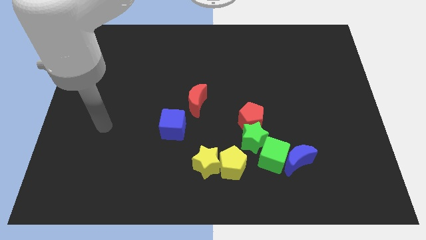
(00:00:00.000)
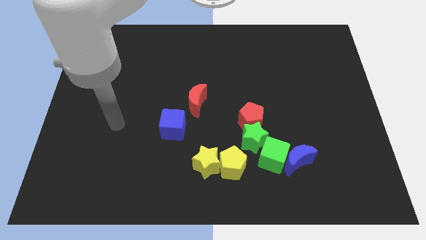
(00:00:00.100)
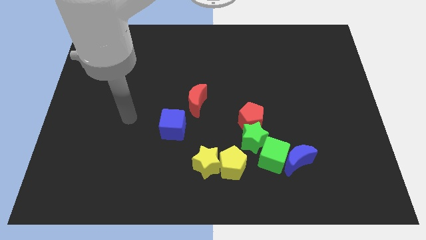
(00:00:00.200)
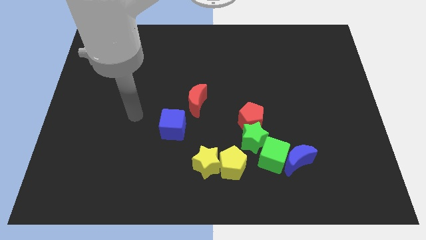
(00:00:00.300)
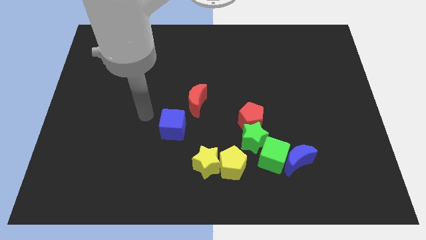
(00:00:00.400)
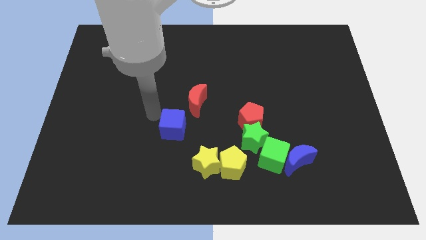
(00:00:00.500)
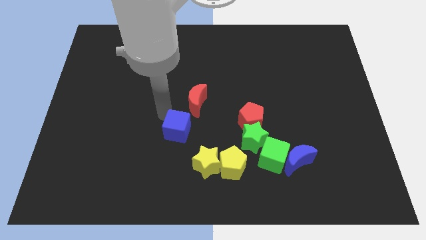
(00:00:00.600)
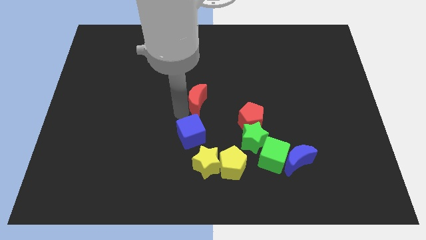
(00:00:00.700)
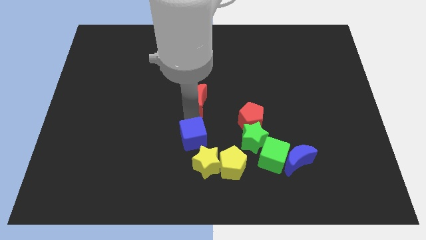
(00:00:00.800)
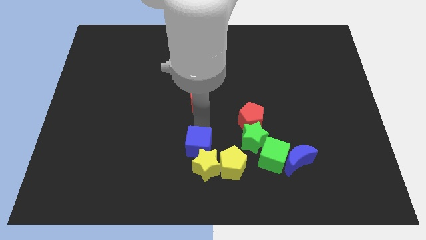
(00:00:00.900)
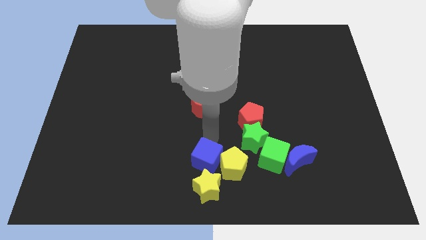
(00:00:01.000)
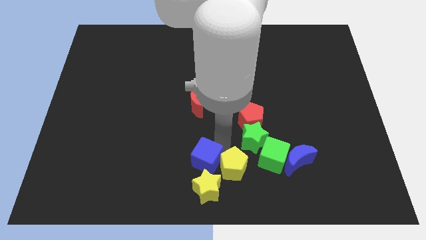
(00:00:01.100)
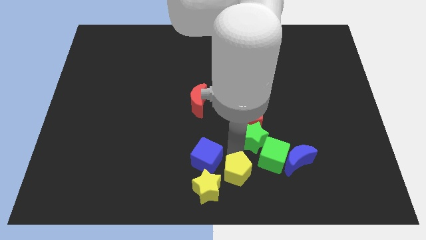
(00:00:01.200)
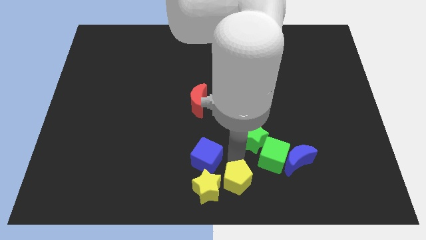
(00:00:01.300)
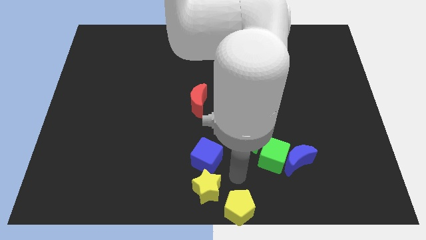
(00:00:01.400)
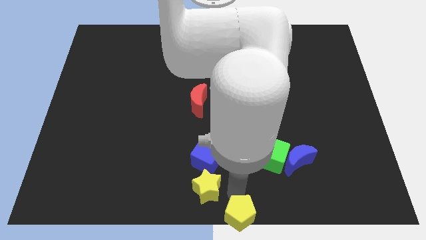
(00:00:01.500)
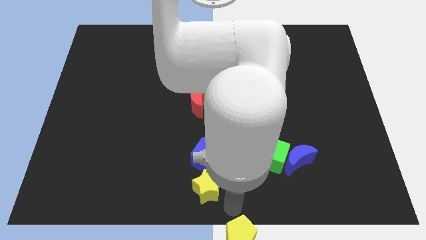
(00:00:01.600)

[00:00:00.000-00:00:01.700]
pull the yellow star apart from the yellow pentagon

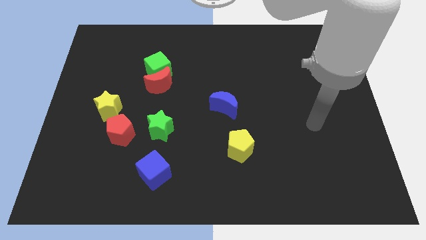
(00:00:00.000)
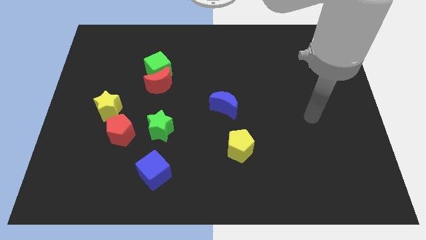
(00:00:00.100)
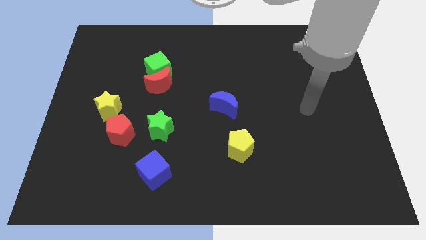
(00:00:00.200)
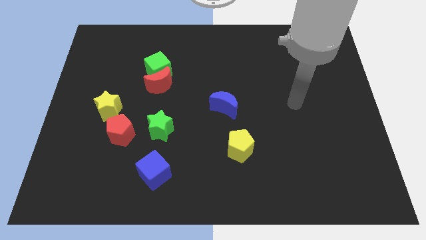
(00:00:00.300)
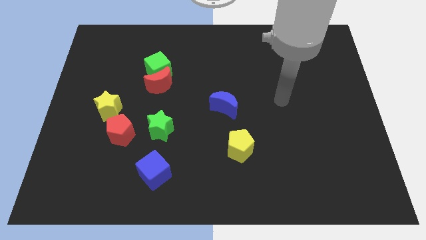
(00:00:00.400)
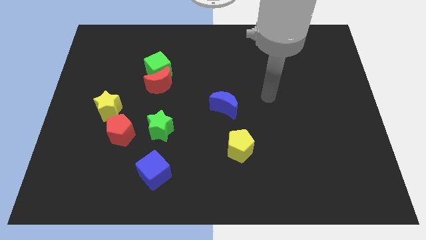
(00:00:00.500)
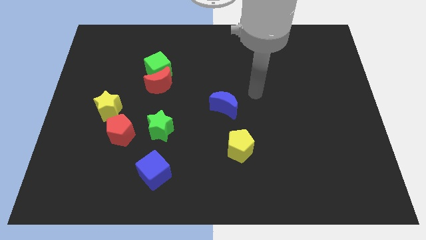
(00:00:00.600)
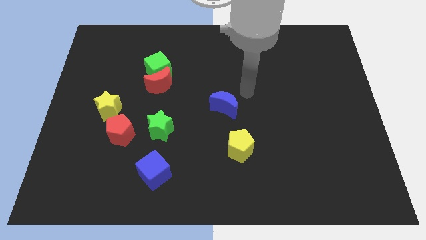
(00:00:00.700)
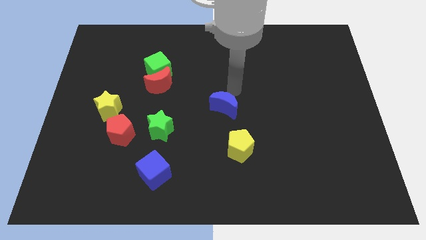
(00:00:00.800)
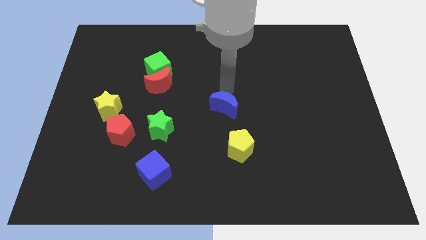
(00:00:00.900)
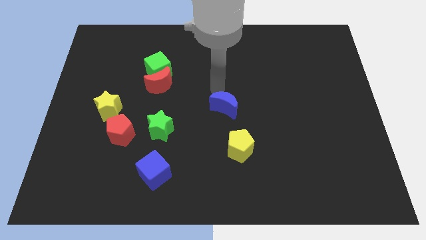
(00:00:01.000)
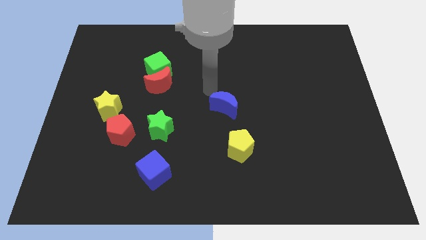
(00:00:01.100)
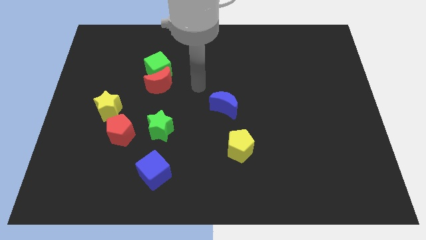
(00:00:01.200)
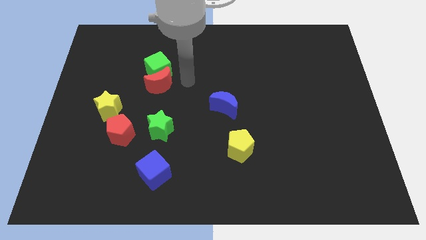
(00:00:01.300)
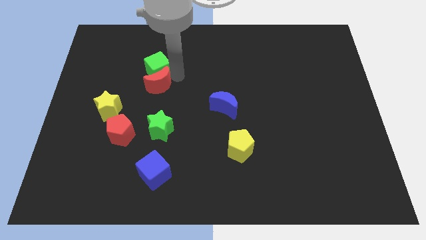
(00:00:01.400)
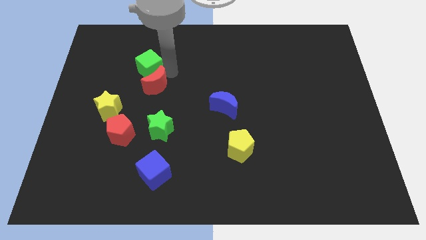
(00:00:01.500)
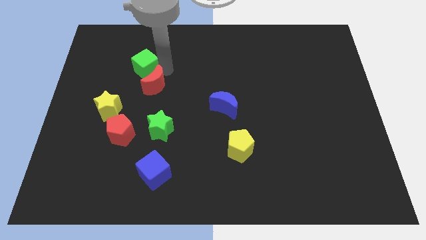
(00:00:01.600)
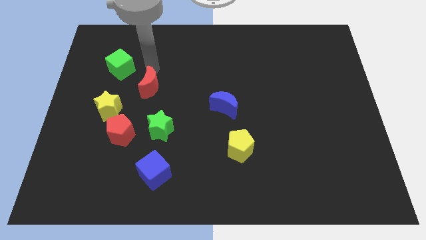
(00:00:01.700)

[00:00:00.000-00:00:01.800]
pull the red moon apart from the green cube

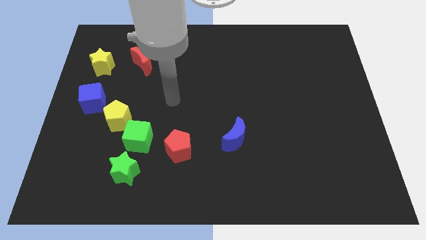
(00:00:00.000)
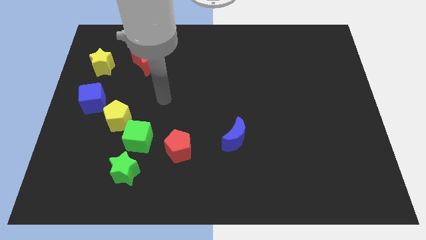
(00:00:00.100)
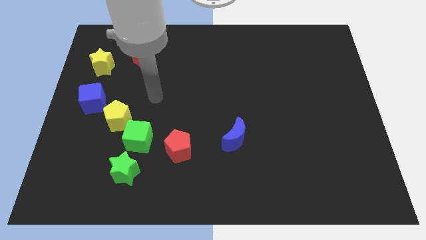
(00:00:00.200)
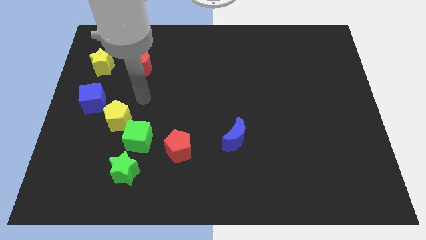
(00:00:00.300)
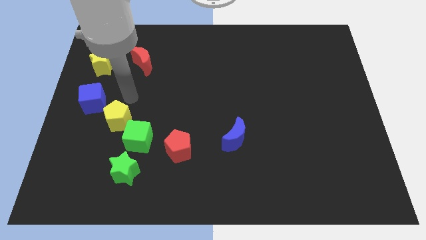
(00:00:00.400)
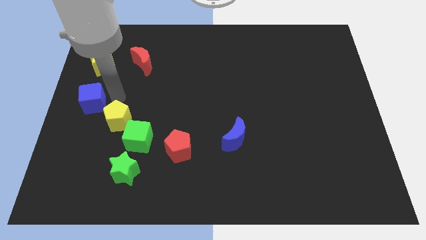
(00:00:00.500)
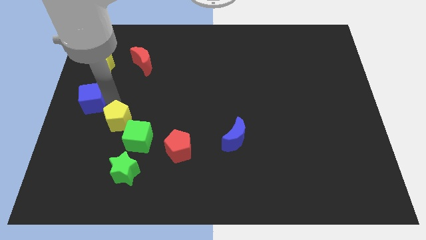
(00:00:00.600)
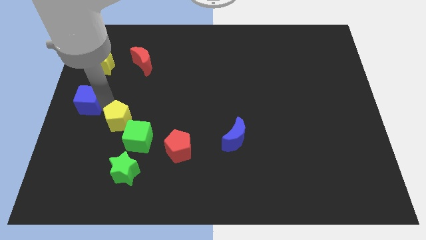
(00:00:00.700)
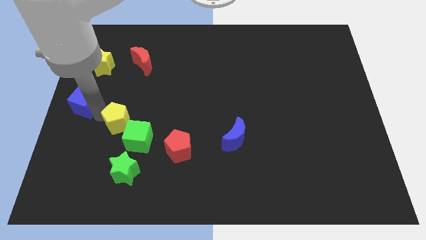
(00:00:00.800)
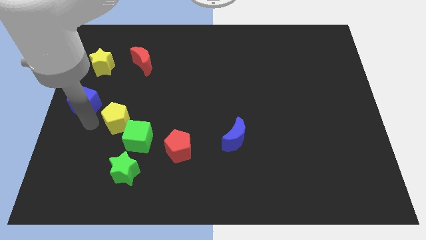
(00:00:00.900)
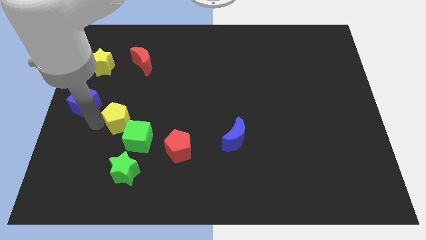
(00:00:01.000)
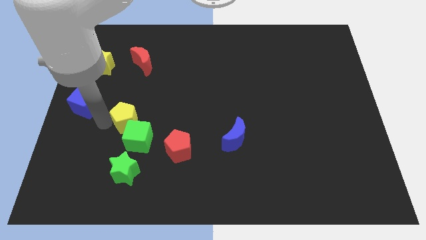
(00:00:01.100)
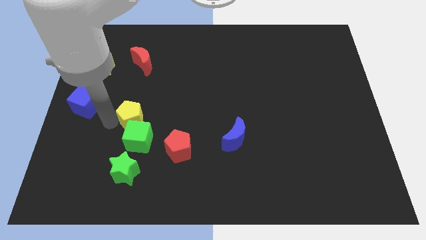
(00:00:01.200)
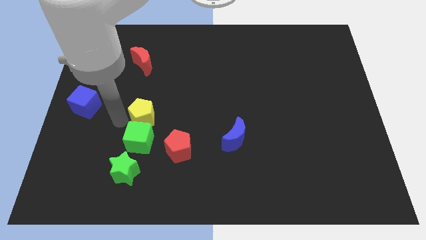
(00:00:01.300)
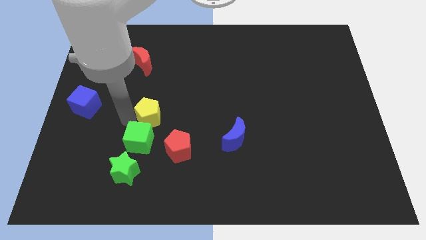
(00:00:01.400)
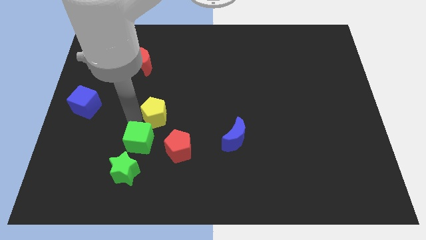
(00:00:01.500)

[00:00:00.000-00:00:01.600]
move the yellow pentagon away from the green cube and blue cube

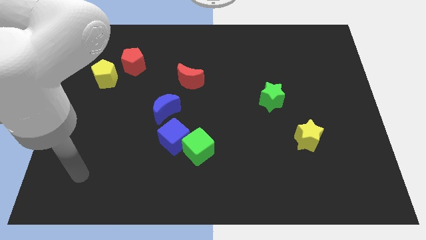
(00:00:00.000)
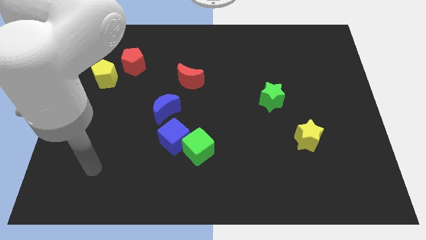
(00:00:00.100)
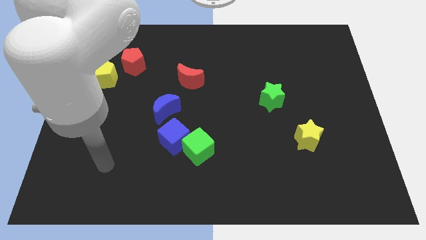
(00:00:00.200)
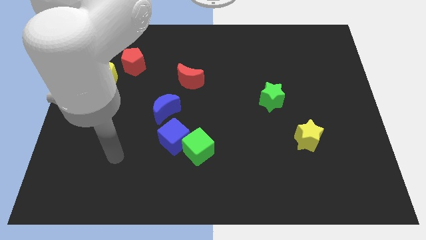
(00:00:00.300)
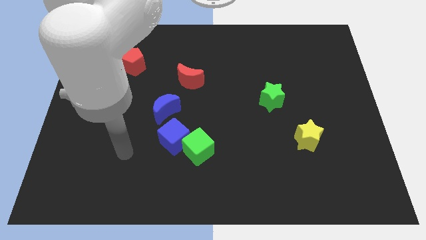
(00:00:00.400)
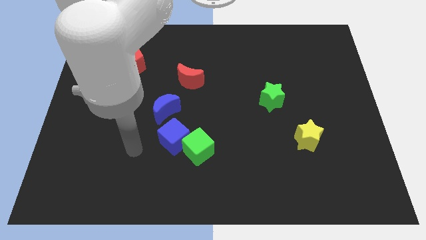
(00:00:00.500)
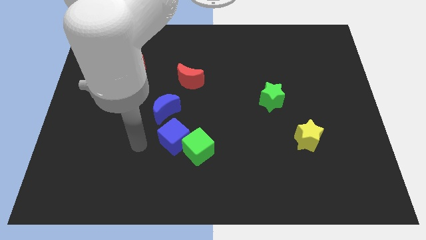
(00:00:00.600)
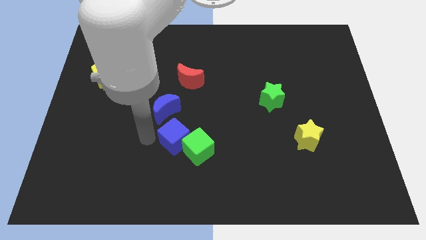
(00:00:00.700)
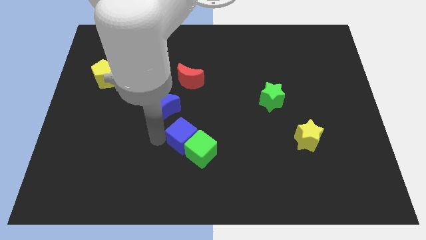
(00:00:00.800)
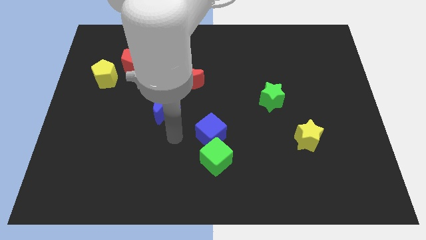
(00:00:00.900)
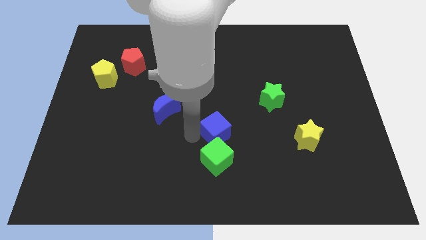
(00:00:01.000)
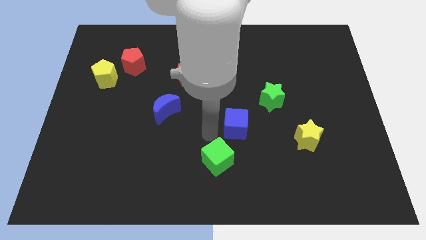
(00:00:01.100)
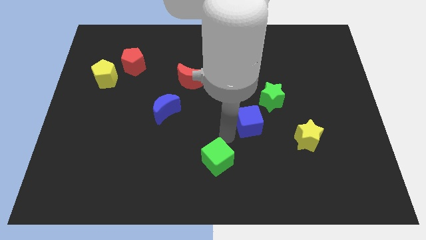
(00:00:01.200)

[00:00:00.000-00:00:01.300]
separate the green cube from the blue cube

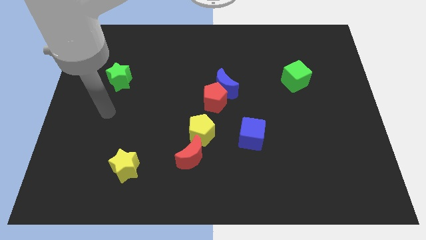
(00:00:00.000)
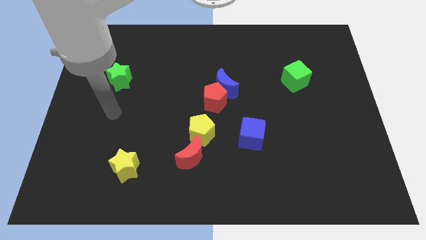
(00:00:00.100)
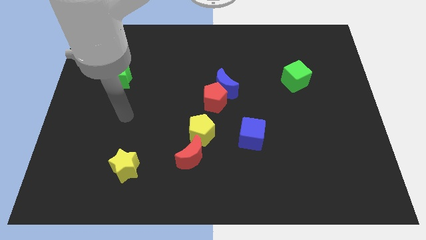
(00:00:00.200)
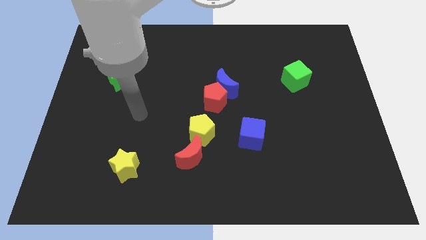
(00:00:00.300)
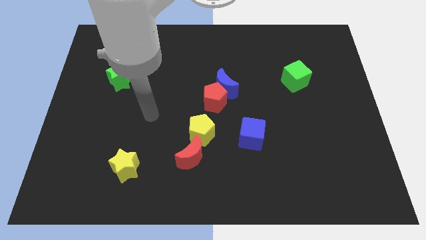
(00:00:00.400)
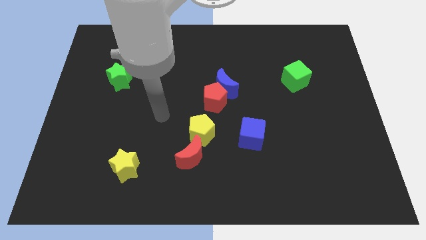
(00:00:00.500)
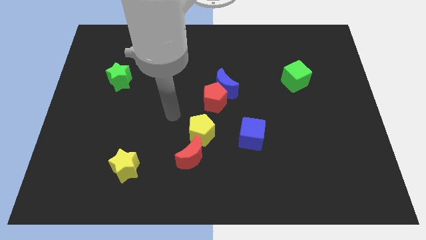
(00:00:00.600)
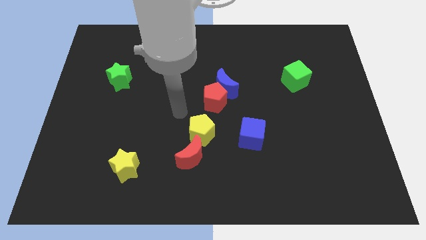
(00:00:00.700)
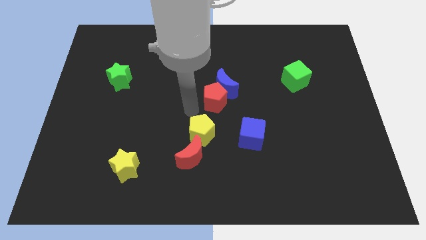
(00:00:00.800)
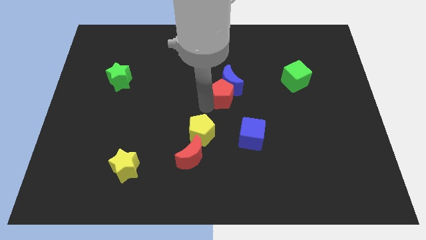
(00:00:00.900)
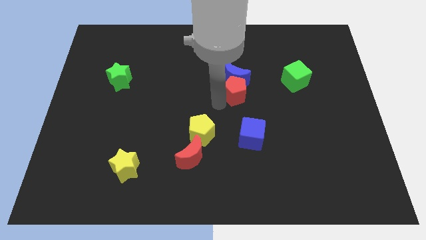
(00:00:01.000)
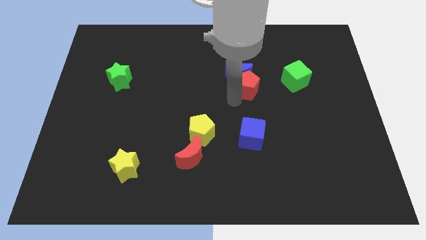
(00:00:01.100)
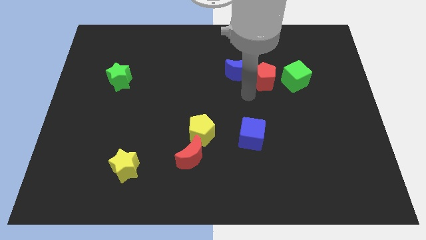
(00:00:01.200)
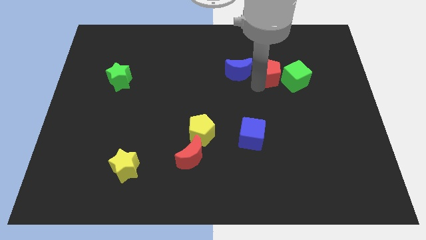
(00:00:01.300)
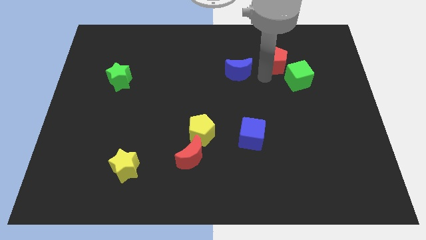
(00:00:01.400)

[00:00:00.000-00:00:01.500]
separate the blue moon from the red pentagon

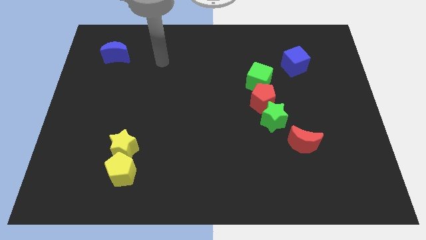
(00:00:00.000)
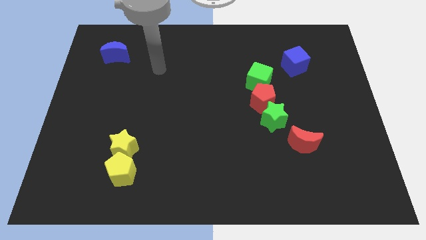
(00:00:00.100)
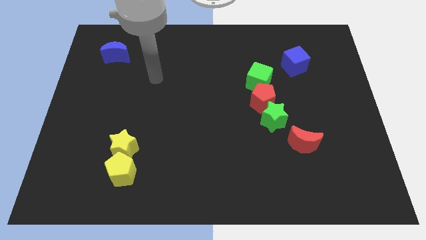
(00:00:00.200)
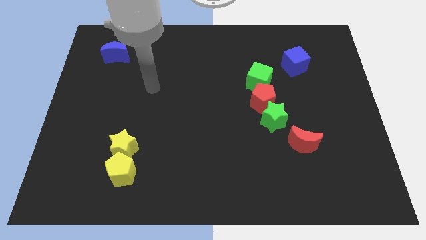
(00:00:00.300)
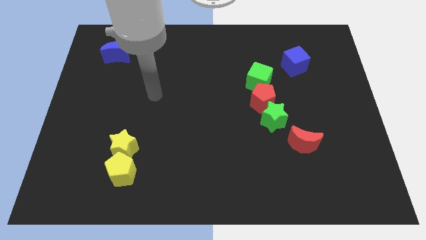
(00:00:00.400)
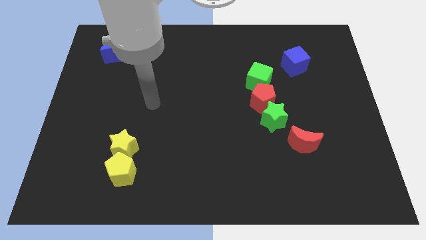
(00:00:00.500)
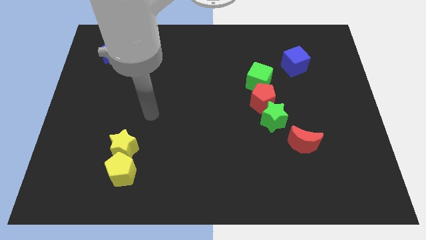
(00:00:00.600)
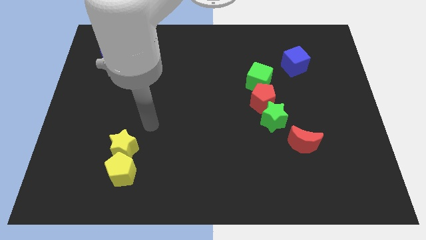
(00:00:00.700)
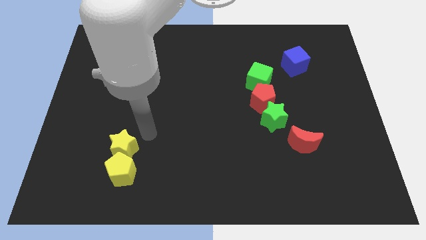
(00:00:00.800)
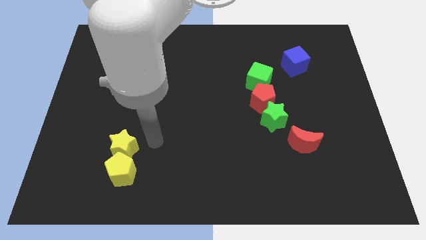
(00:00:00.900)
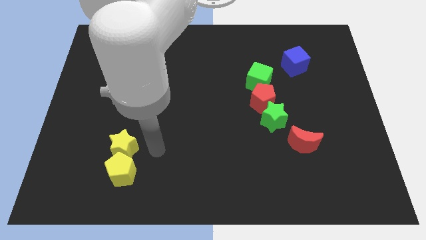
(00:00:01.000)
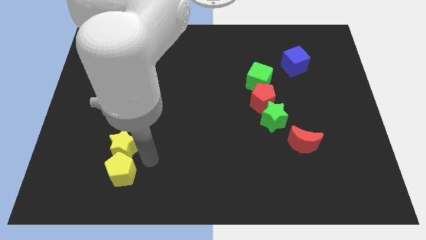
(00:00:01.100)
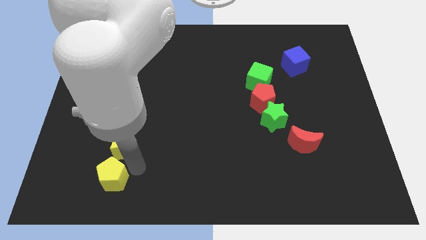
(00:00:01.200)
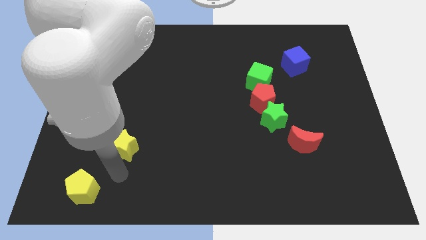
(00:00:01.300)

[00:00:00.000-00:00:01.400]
separate the yellow star from the yellow pentagon
